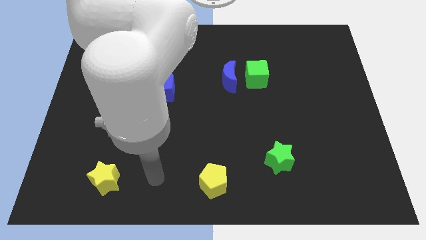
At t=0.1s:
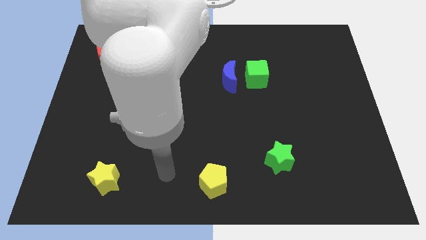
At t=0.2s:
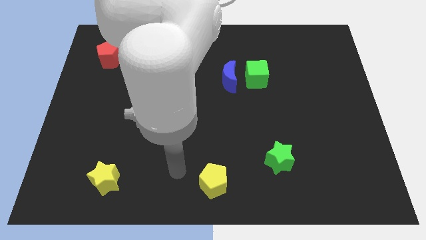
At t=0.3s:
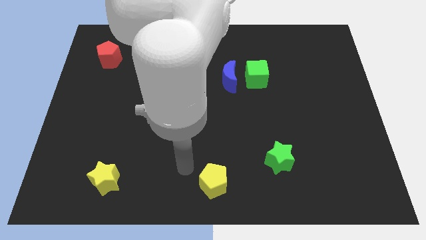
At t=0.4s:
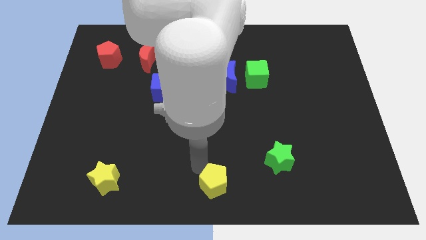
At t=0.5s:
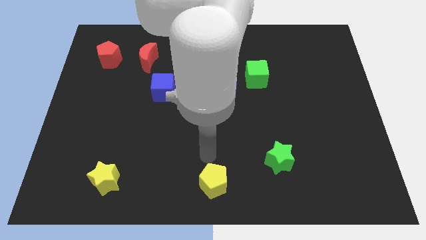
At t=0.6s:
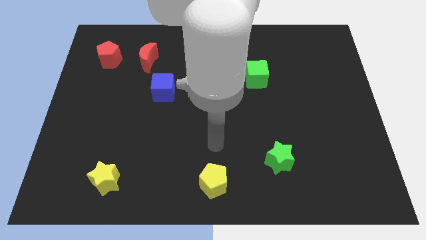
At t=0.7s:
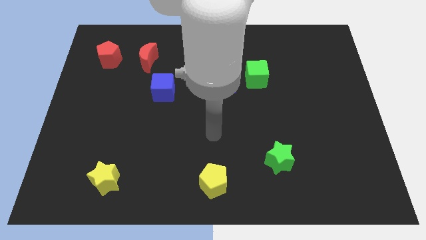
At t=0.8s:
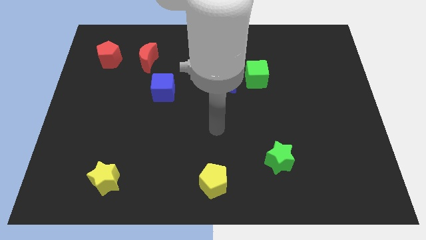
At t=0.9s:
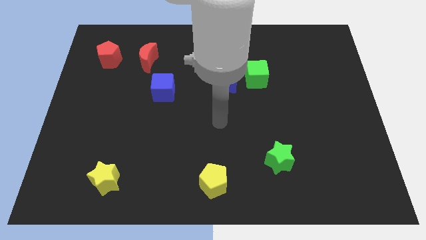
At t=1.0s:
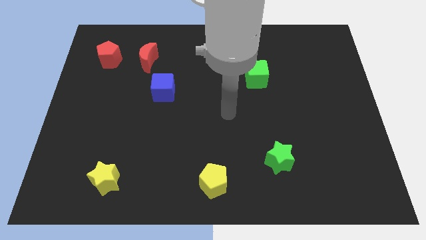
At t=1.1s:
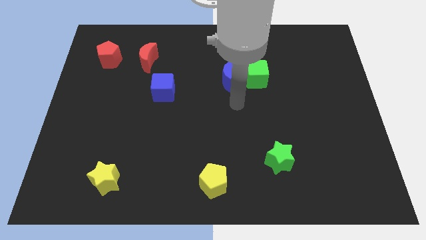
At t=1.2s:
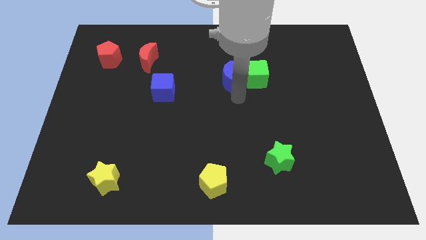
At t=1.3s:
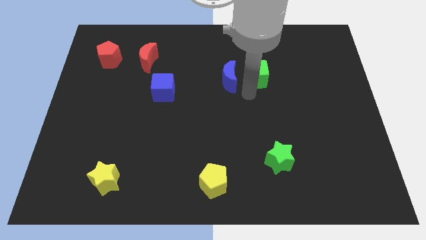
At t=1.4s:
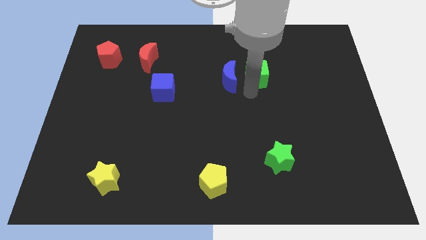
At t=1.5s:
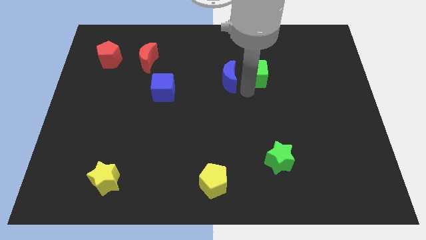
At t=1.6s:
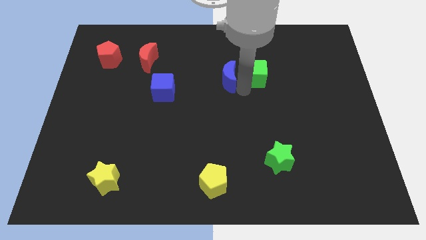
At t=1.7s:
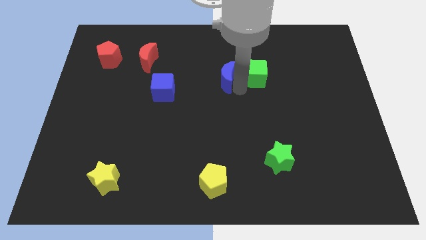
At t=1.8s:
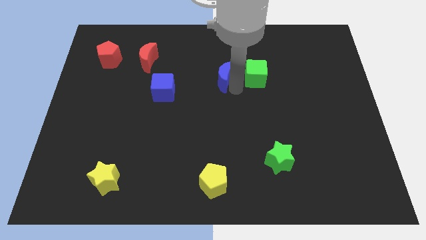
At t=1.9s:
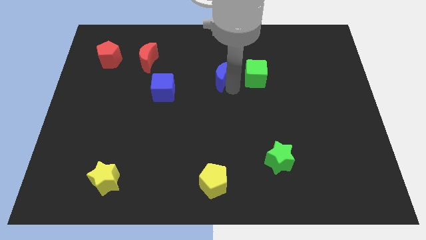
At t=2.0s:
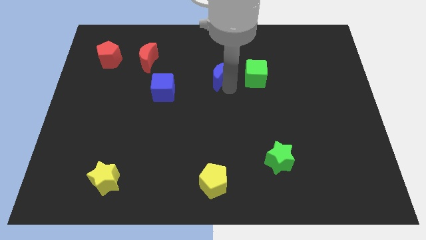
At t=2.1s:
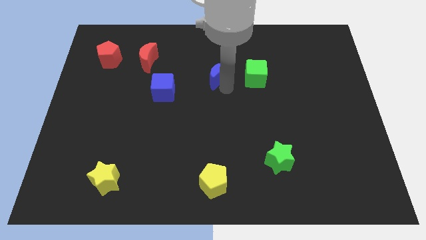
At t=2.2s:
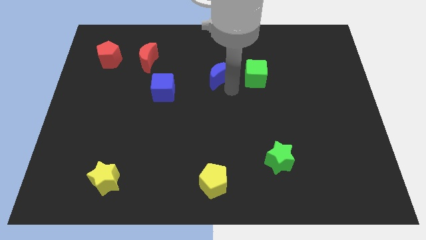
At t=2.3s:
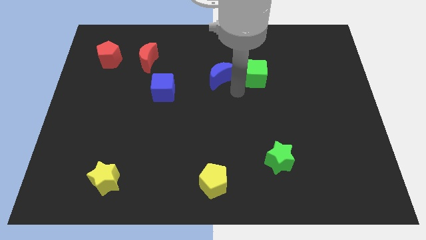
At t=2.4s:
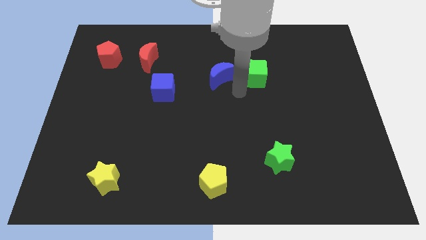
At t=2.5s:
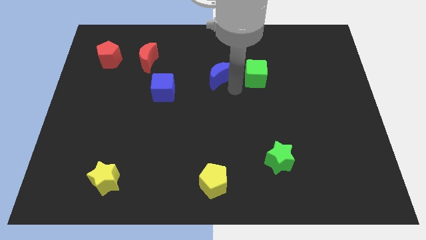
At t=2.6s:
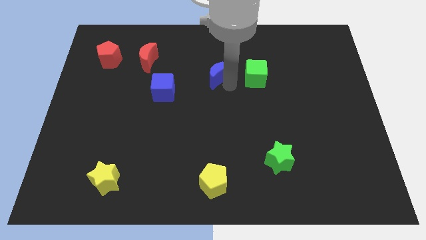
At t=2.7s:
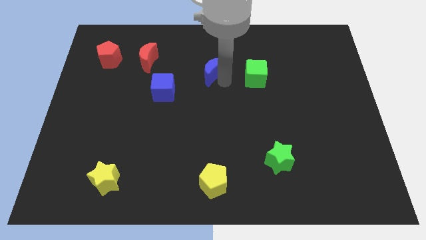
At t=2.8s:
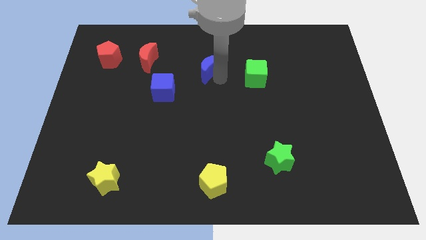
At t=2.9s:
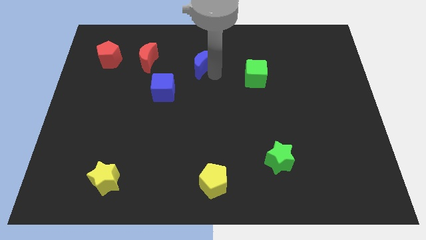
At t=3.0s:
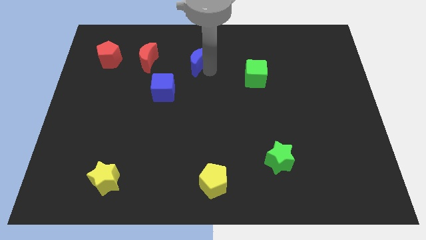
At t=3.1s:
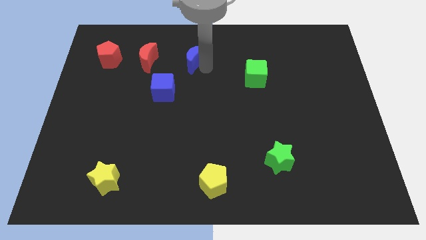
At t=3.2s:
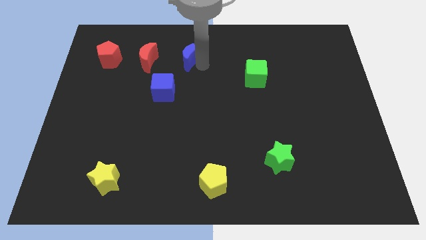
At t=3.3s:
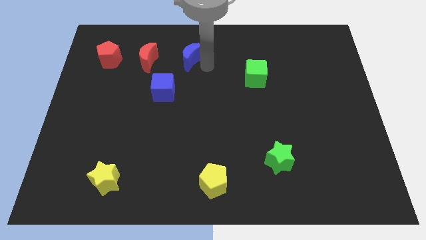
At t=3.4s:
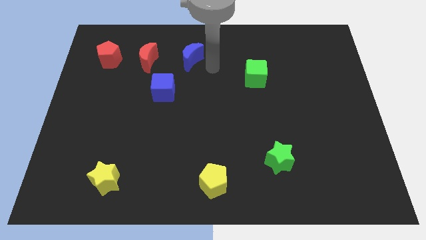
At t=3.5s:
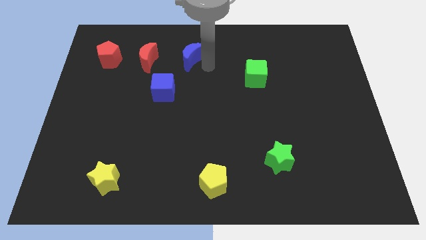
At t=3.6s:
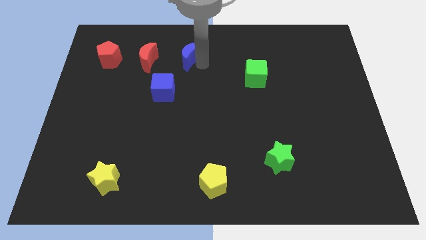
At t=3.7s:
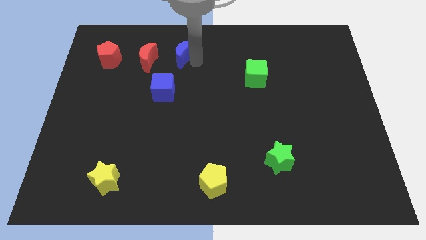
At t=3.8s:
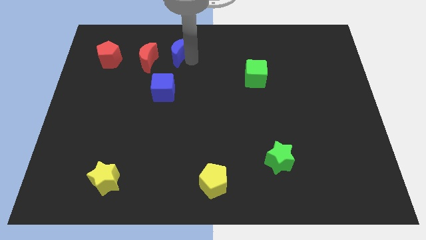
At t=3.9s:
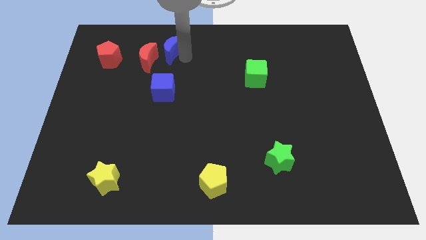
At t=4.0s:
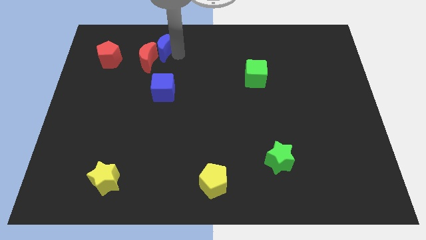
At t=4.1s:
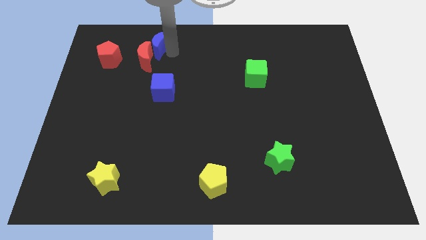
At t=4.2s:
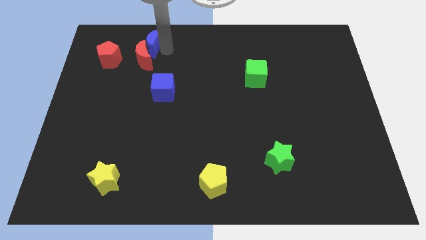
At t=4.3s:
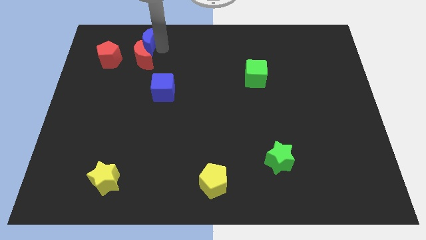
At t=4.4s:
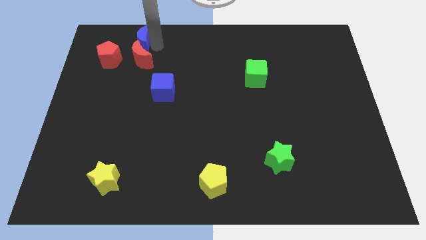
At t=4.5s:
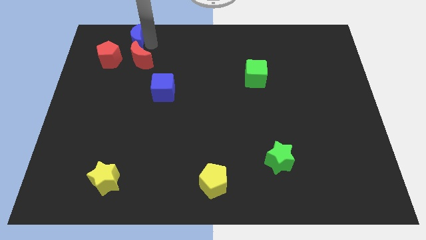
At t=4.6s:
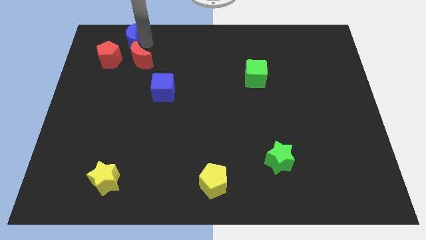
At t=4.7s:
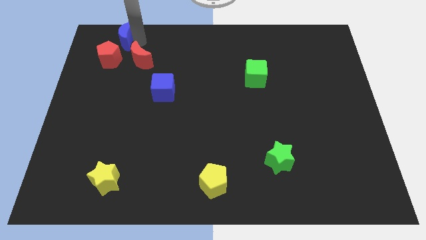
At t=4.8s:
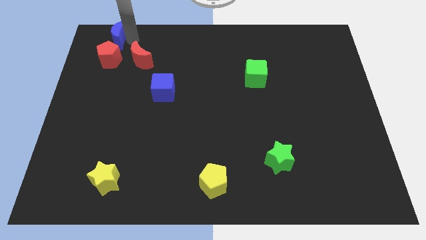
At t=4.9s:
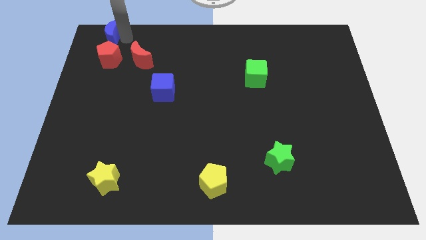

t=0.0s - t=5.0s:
put the blue moon to the top left of the board

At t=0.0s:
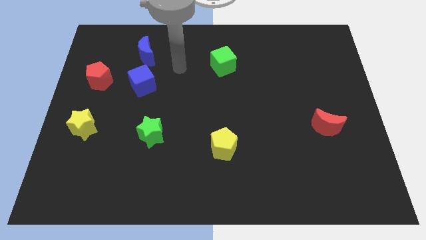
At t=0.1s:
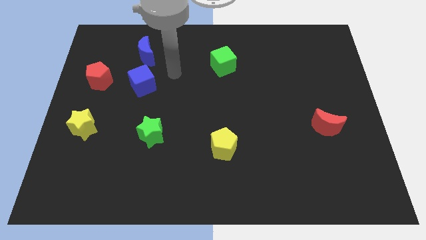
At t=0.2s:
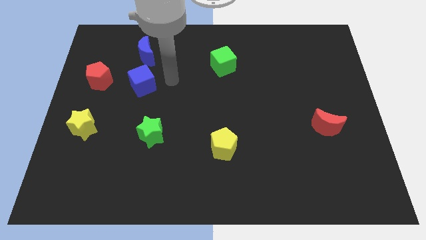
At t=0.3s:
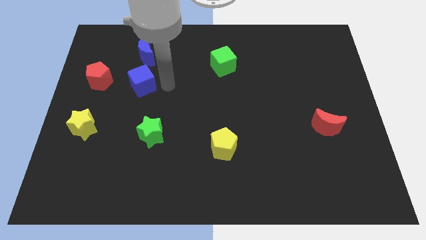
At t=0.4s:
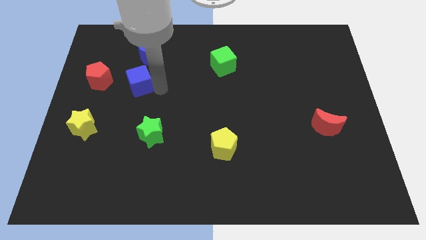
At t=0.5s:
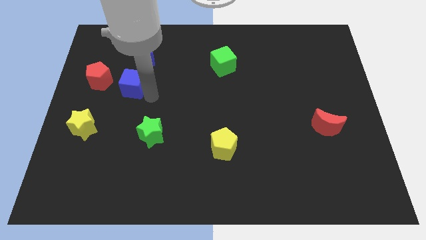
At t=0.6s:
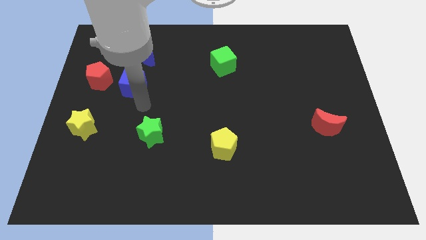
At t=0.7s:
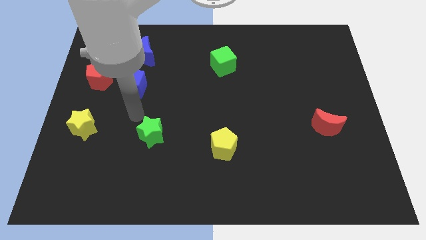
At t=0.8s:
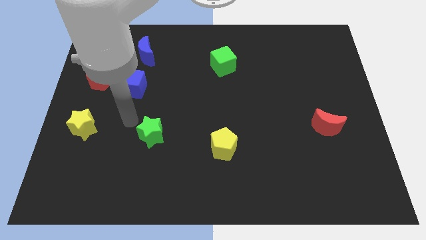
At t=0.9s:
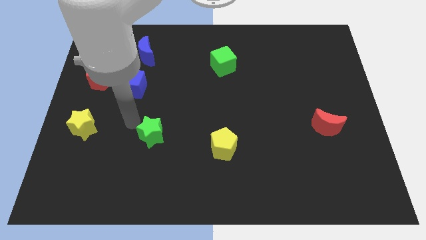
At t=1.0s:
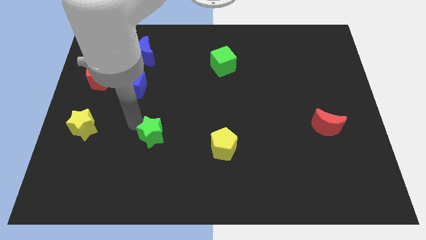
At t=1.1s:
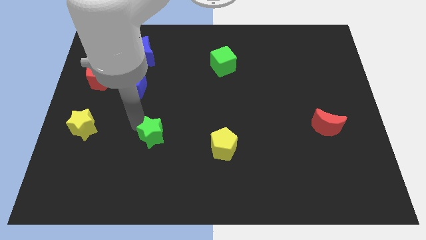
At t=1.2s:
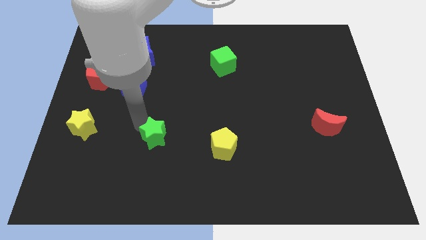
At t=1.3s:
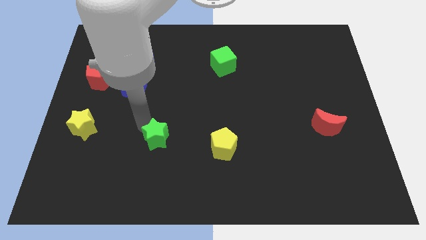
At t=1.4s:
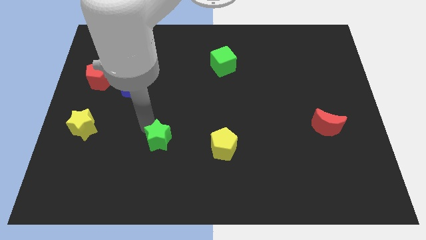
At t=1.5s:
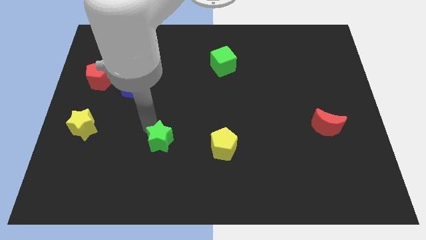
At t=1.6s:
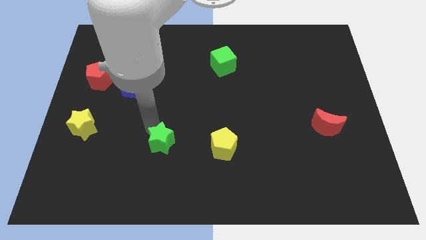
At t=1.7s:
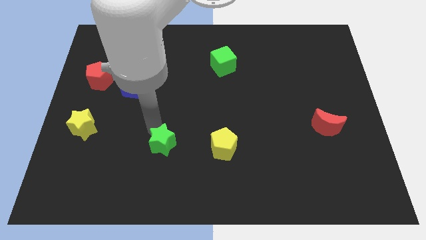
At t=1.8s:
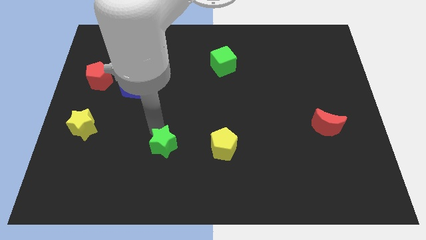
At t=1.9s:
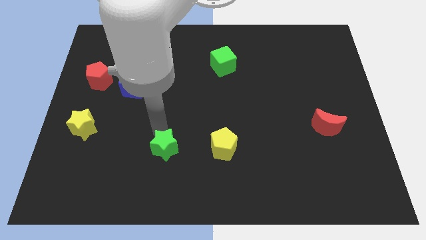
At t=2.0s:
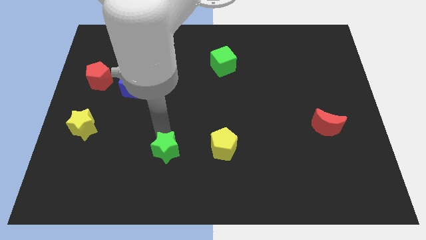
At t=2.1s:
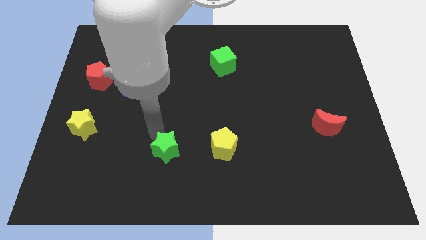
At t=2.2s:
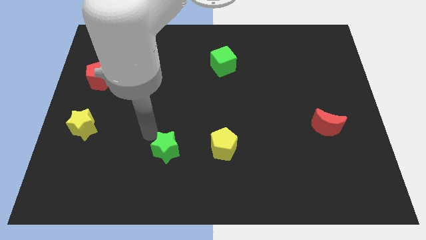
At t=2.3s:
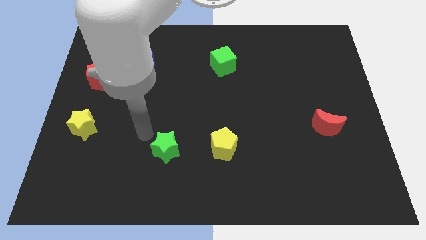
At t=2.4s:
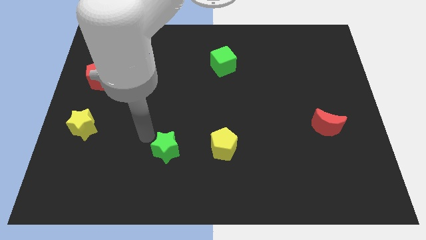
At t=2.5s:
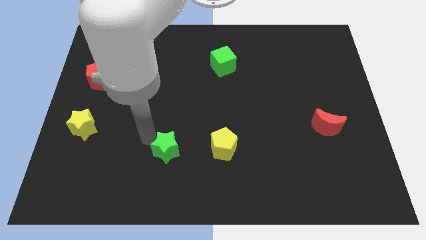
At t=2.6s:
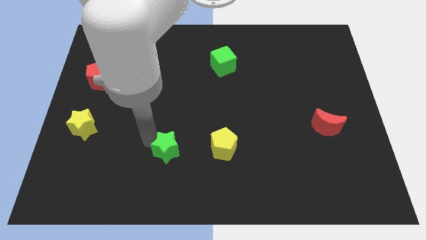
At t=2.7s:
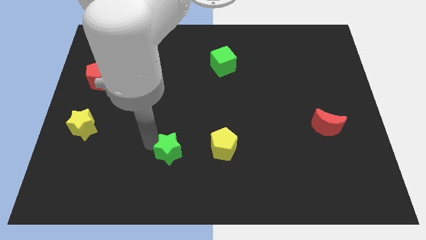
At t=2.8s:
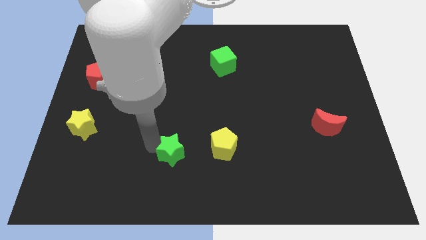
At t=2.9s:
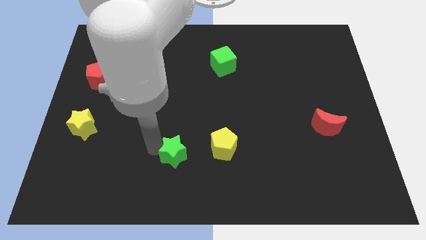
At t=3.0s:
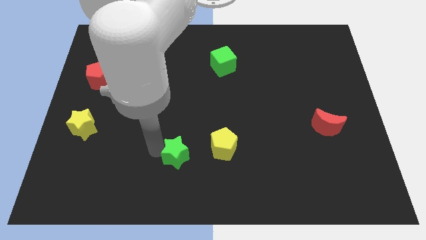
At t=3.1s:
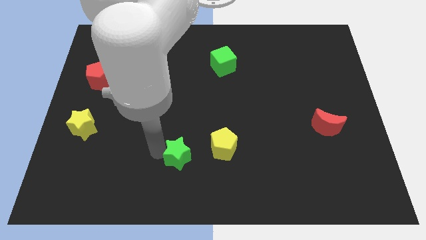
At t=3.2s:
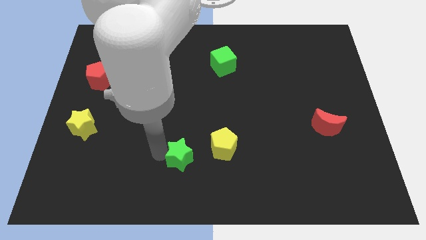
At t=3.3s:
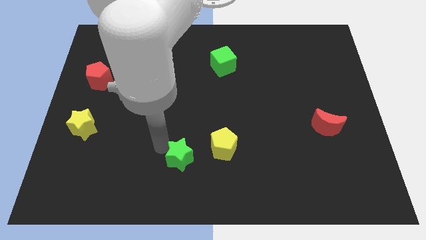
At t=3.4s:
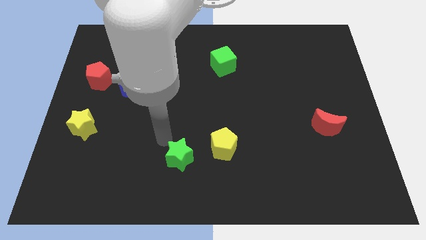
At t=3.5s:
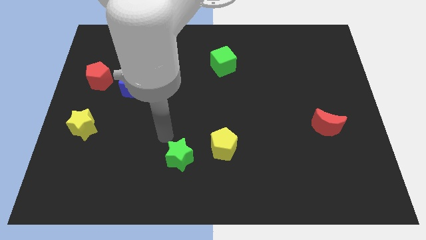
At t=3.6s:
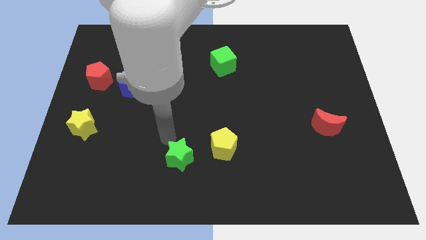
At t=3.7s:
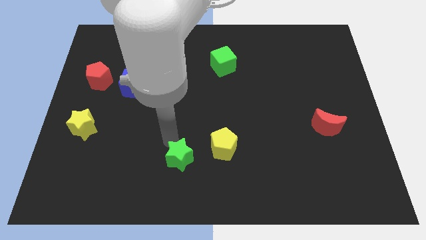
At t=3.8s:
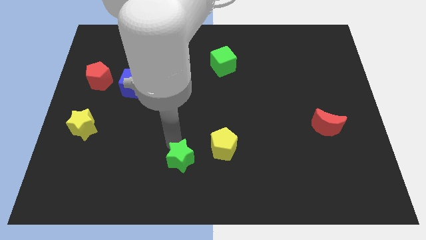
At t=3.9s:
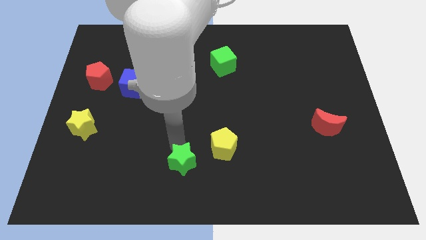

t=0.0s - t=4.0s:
push the green star to the bottom
